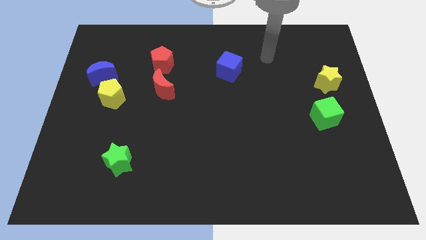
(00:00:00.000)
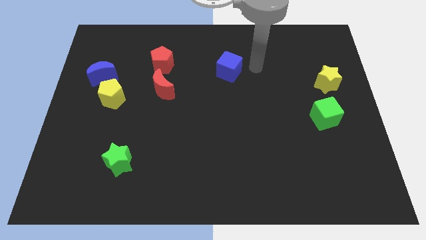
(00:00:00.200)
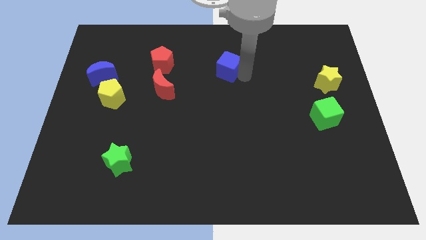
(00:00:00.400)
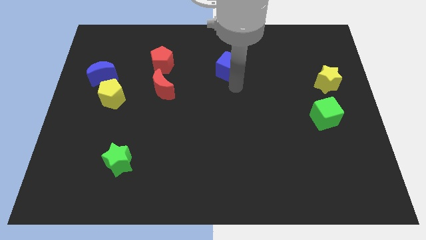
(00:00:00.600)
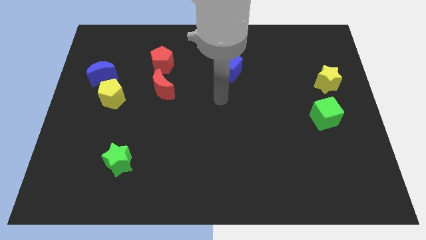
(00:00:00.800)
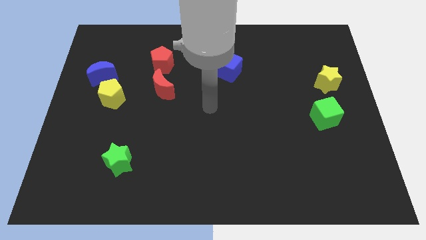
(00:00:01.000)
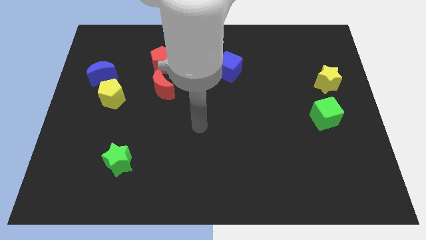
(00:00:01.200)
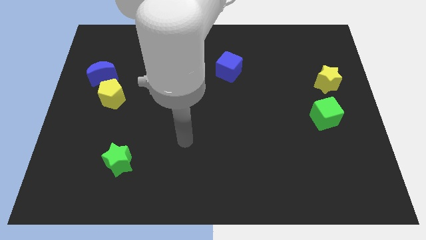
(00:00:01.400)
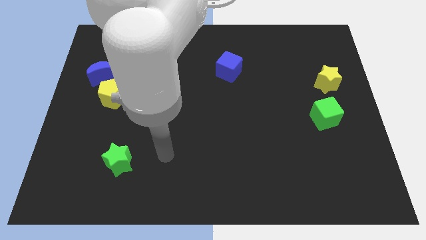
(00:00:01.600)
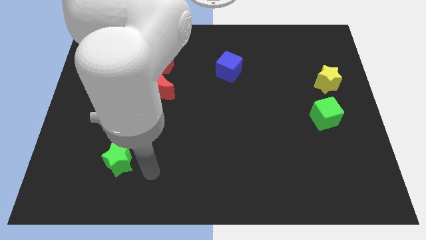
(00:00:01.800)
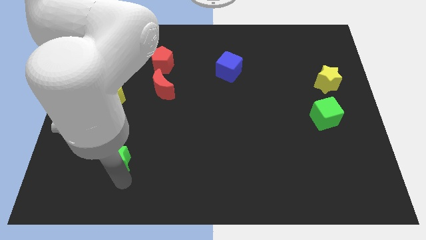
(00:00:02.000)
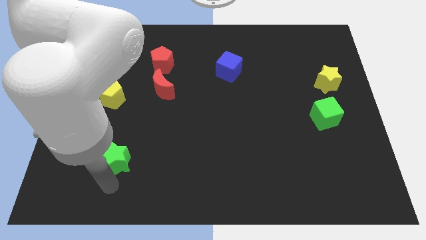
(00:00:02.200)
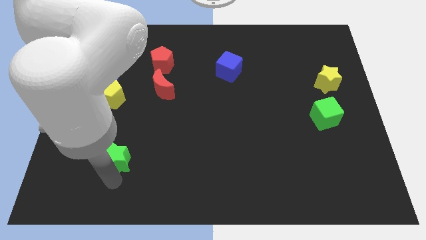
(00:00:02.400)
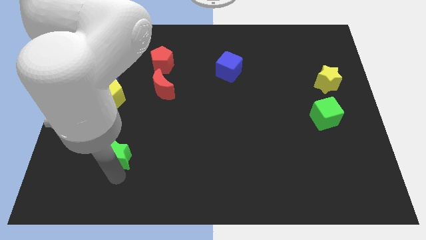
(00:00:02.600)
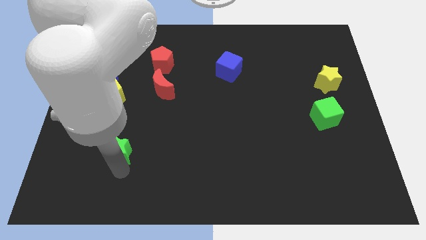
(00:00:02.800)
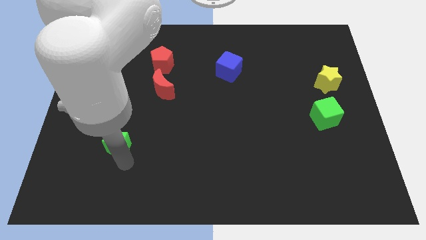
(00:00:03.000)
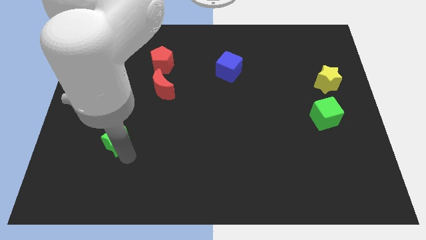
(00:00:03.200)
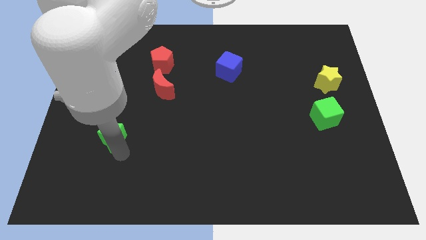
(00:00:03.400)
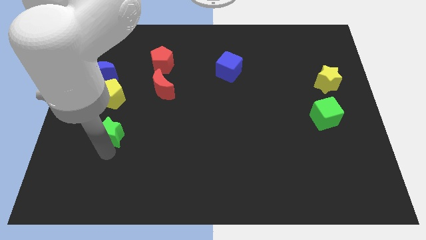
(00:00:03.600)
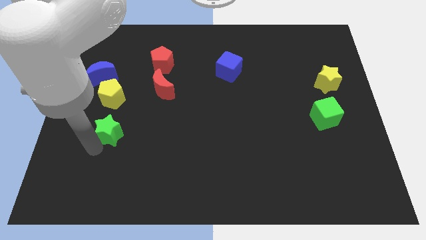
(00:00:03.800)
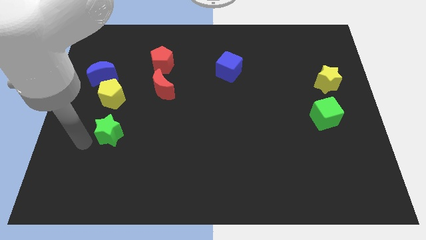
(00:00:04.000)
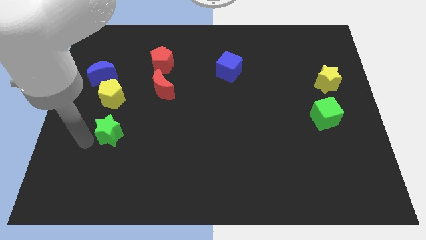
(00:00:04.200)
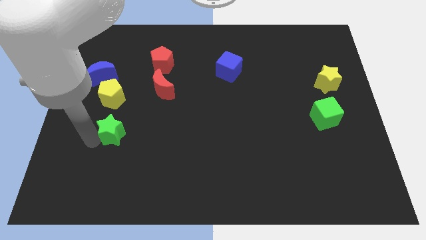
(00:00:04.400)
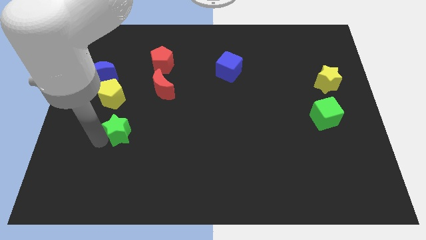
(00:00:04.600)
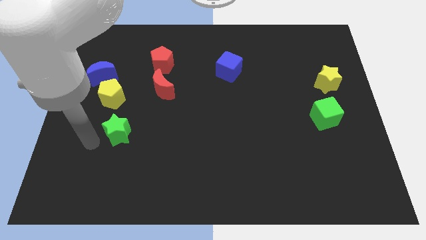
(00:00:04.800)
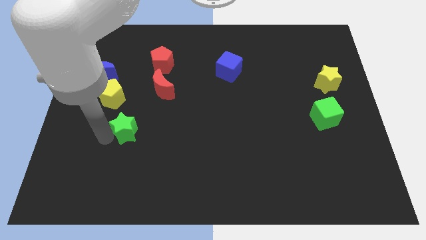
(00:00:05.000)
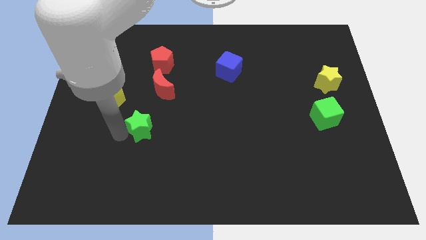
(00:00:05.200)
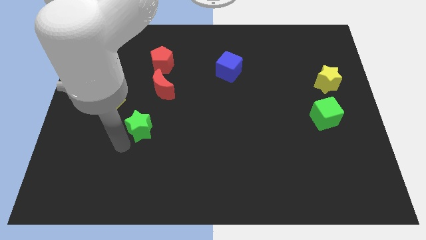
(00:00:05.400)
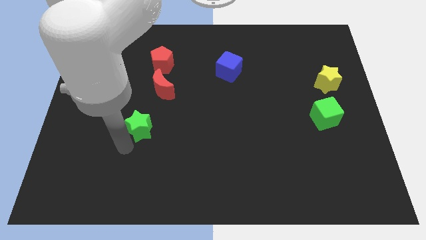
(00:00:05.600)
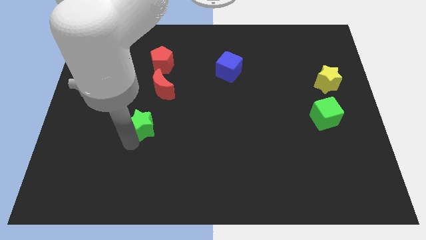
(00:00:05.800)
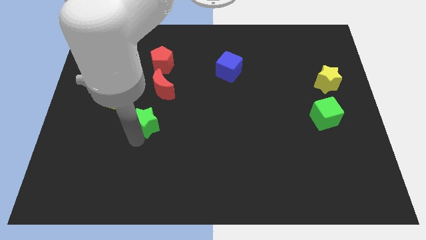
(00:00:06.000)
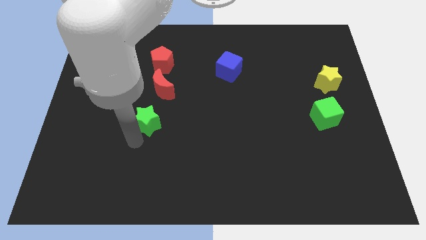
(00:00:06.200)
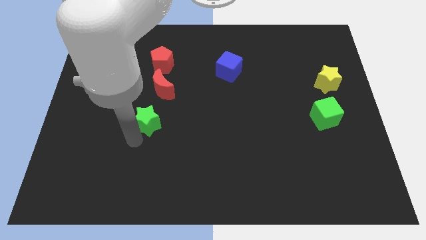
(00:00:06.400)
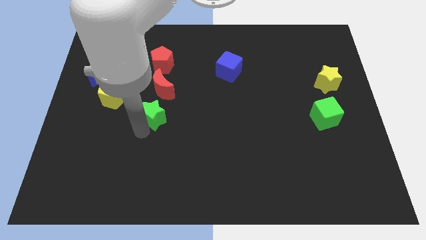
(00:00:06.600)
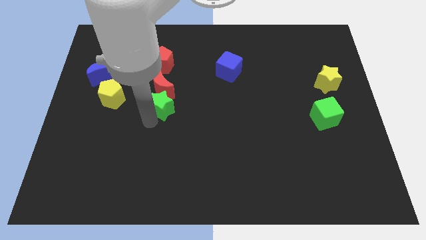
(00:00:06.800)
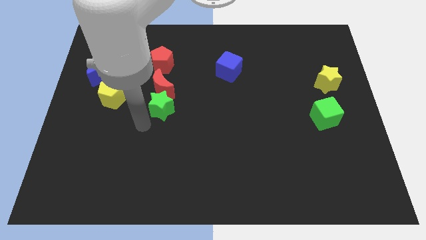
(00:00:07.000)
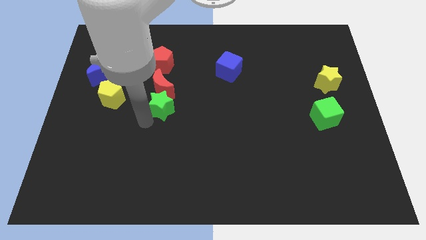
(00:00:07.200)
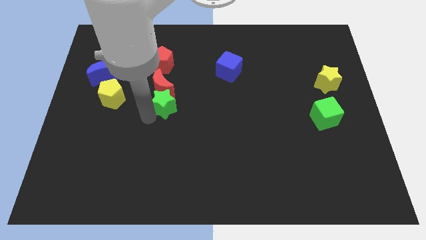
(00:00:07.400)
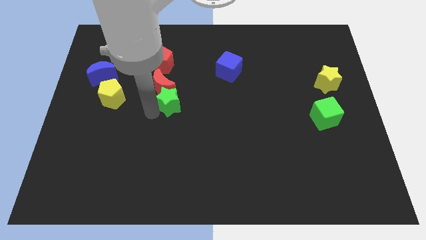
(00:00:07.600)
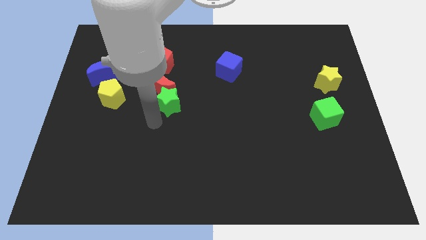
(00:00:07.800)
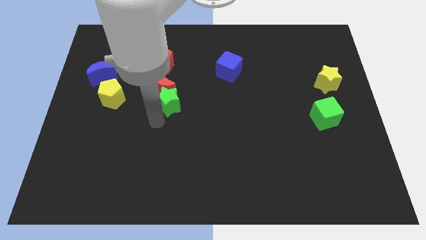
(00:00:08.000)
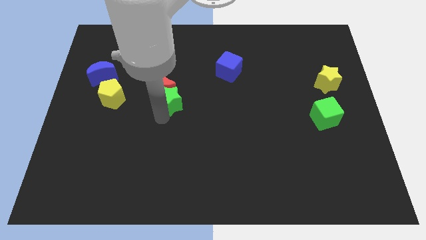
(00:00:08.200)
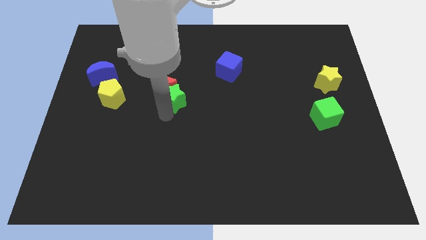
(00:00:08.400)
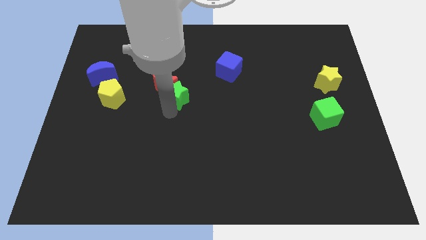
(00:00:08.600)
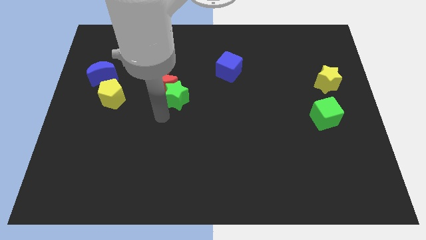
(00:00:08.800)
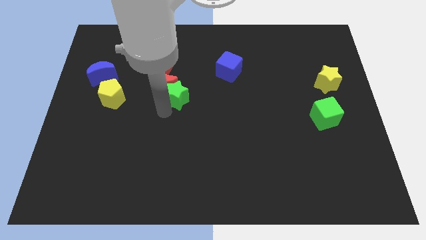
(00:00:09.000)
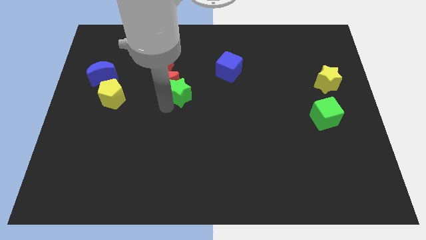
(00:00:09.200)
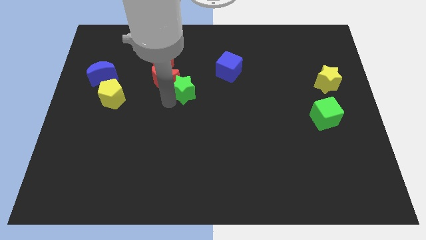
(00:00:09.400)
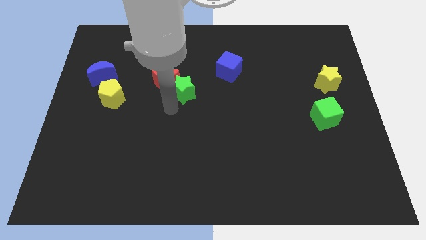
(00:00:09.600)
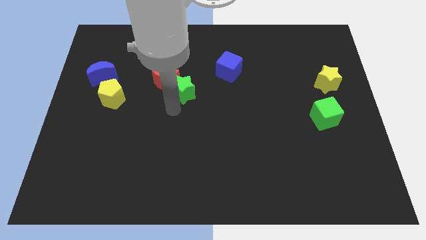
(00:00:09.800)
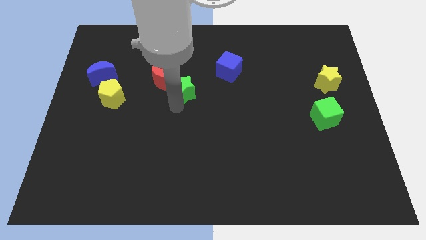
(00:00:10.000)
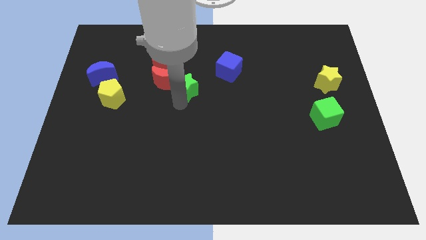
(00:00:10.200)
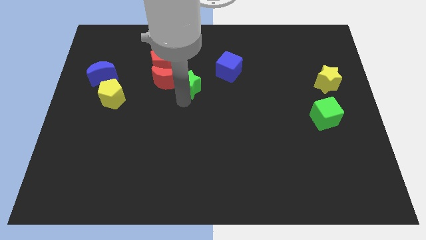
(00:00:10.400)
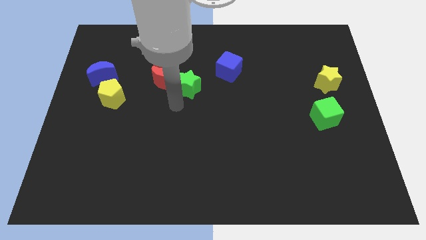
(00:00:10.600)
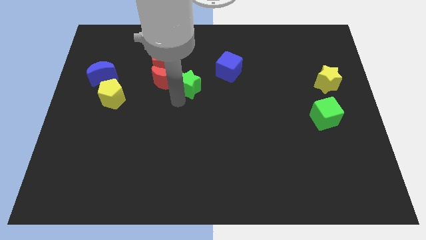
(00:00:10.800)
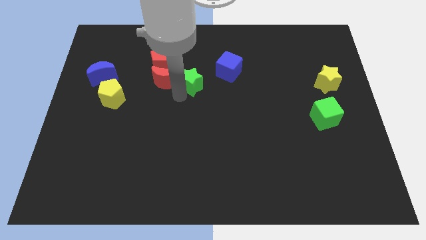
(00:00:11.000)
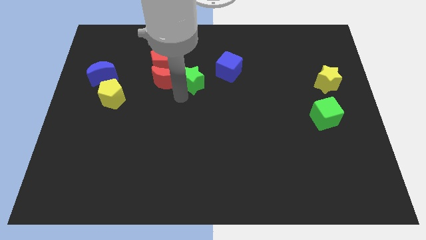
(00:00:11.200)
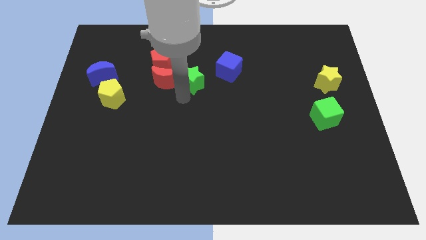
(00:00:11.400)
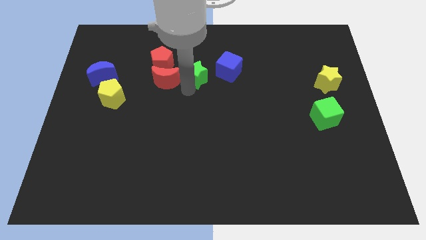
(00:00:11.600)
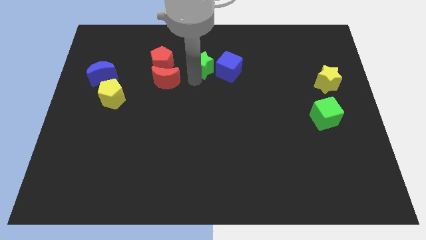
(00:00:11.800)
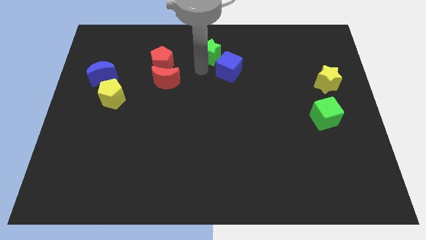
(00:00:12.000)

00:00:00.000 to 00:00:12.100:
push the green star to the top

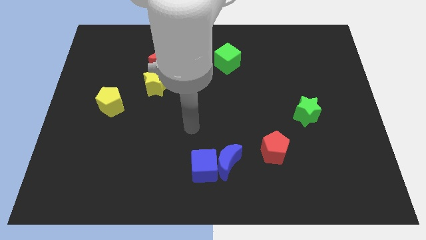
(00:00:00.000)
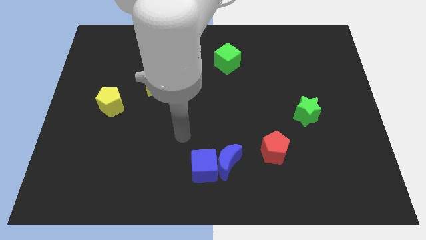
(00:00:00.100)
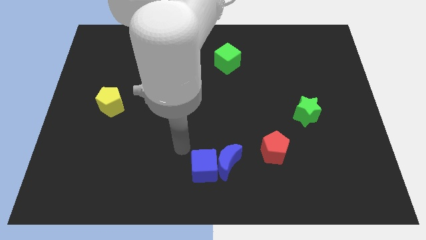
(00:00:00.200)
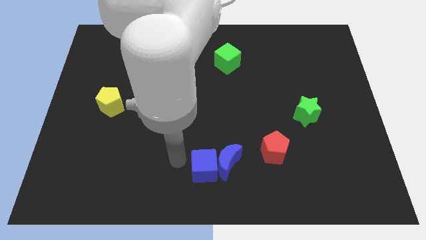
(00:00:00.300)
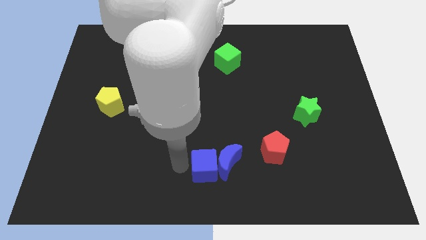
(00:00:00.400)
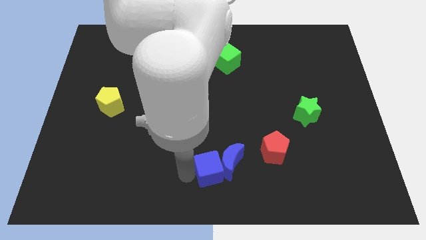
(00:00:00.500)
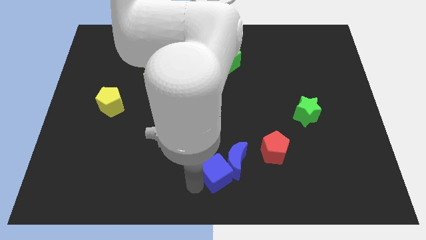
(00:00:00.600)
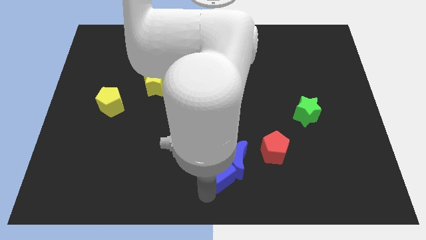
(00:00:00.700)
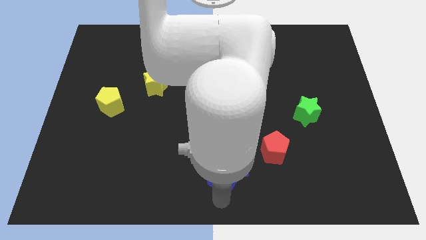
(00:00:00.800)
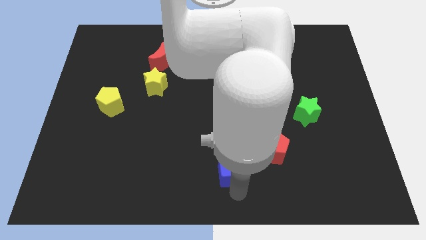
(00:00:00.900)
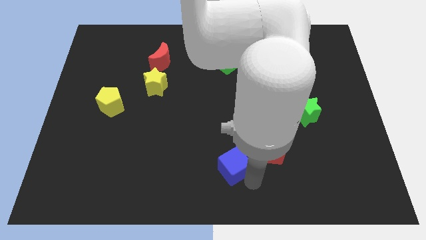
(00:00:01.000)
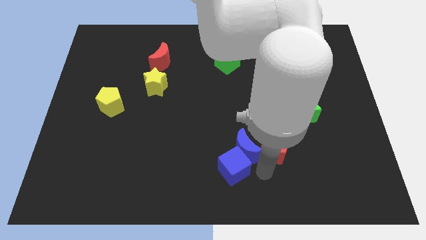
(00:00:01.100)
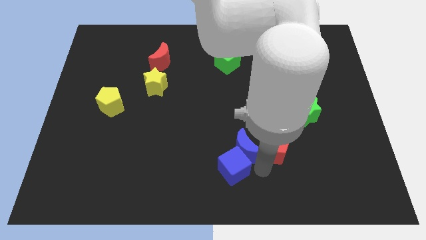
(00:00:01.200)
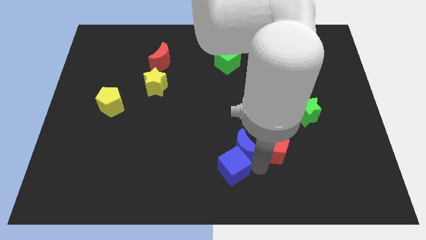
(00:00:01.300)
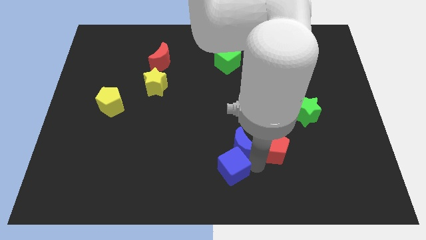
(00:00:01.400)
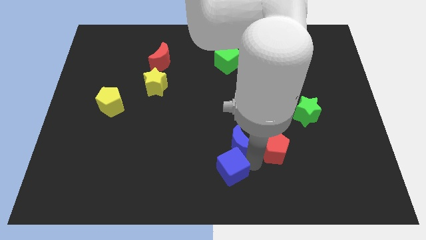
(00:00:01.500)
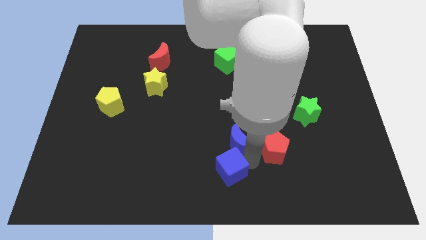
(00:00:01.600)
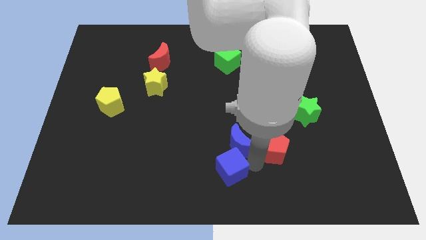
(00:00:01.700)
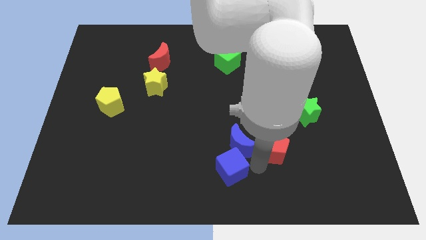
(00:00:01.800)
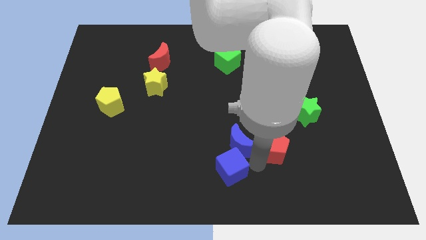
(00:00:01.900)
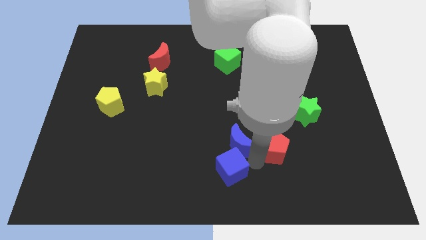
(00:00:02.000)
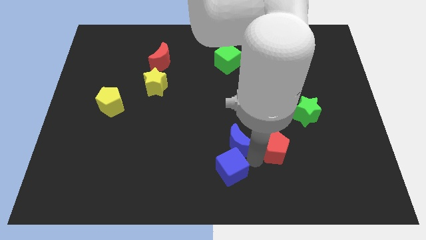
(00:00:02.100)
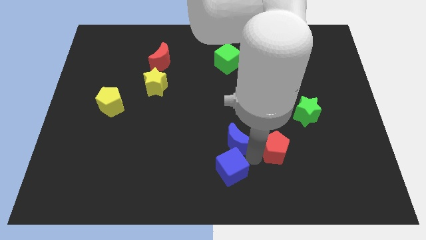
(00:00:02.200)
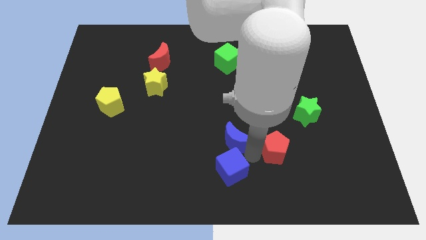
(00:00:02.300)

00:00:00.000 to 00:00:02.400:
put the blue moon to the center
